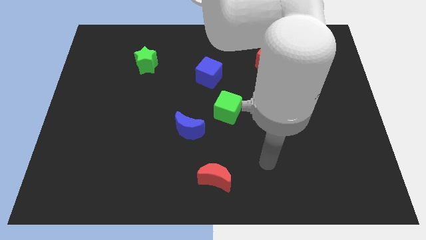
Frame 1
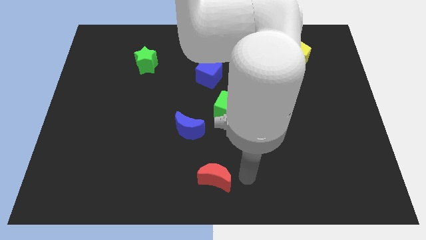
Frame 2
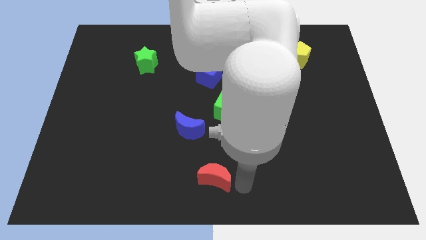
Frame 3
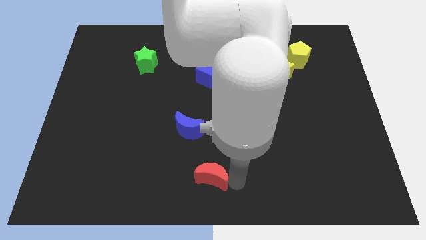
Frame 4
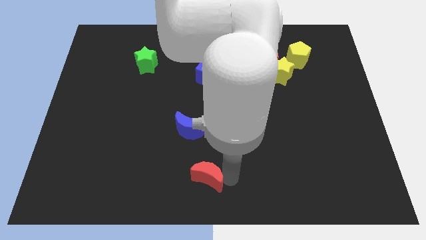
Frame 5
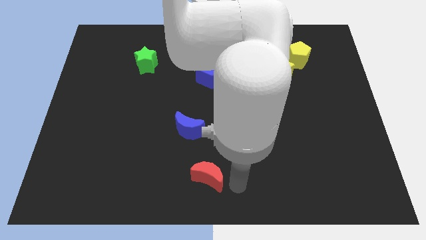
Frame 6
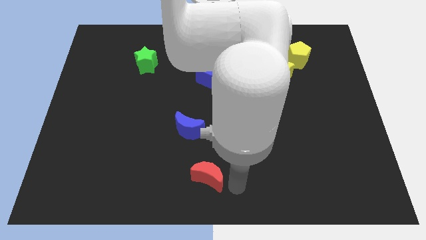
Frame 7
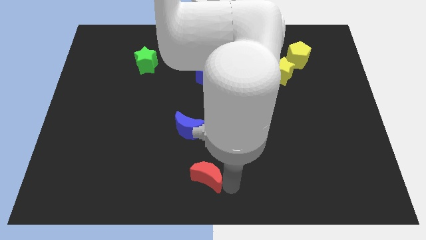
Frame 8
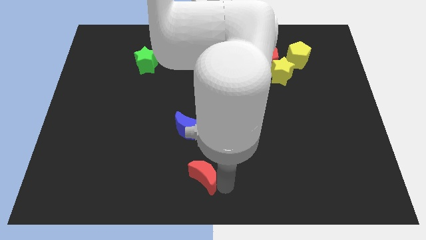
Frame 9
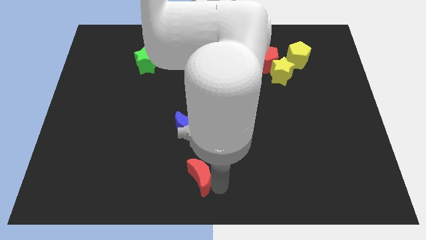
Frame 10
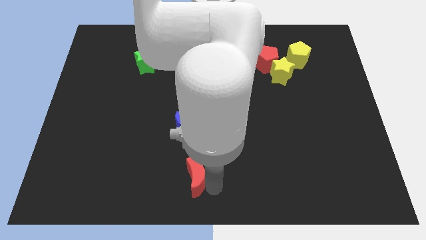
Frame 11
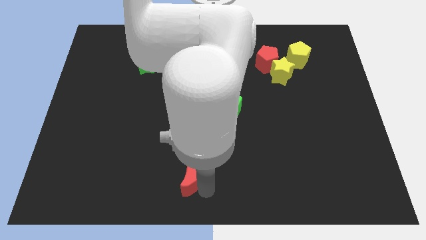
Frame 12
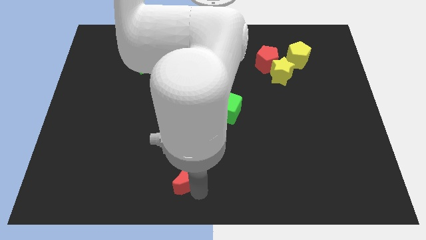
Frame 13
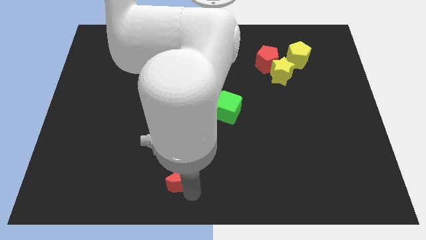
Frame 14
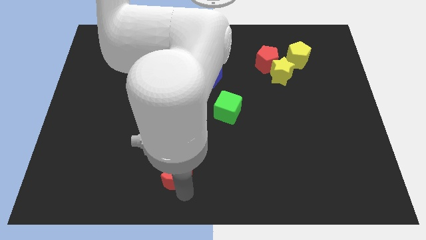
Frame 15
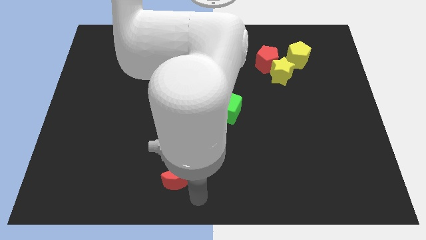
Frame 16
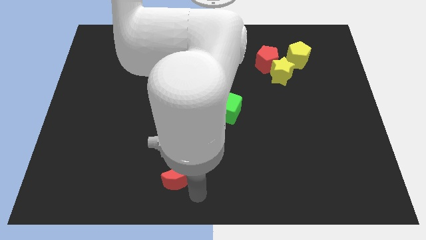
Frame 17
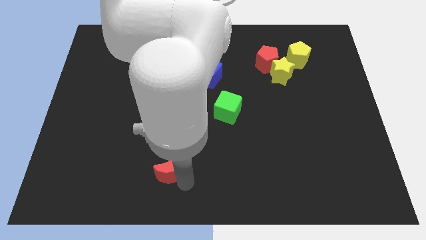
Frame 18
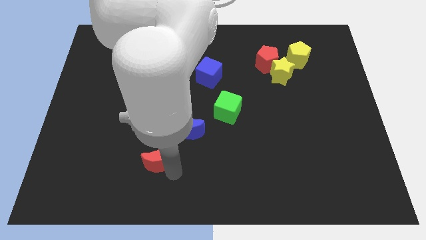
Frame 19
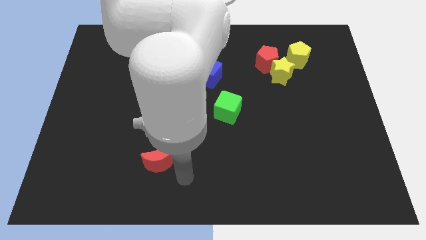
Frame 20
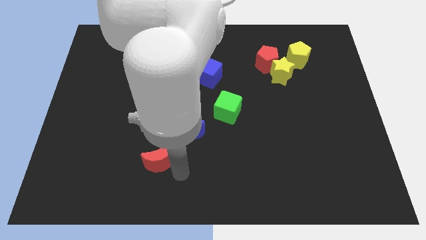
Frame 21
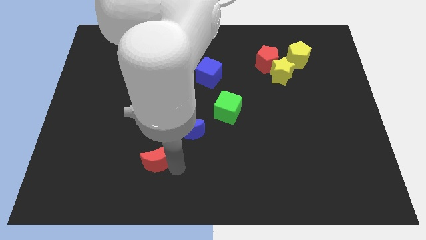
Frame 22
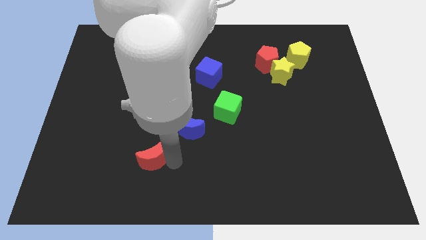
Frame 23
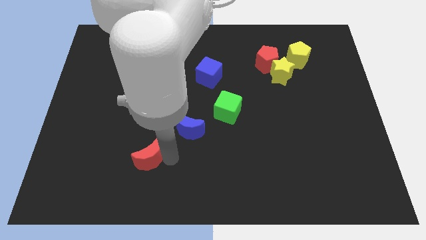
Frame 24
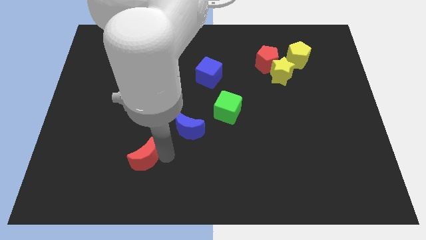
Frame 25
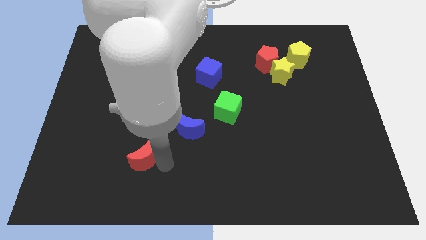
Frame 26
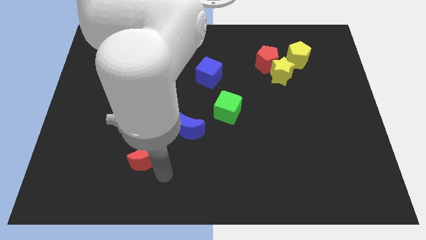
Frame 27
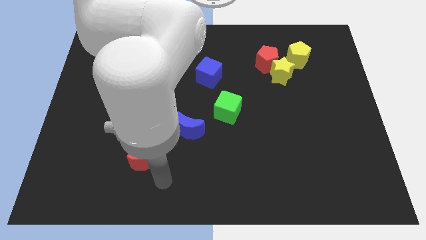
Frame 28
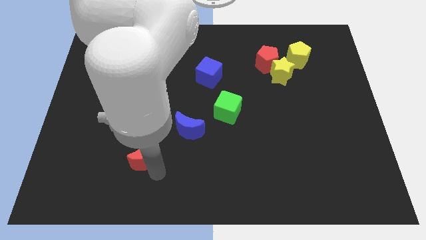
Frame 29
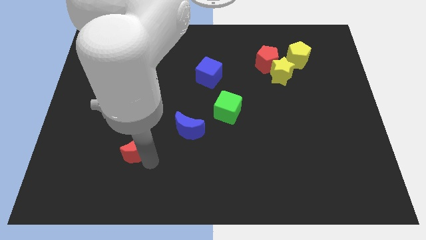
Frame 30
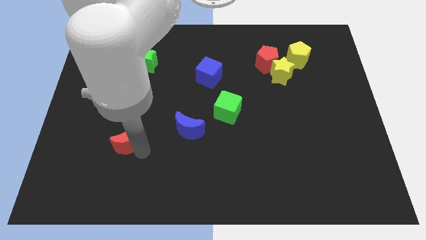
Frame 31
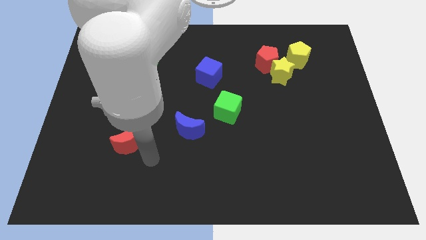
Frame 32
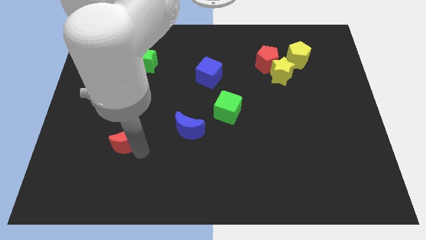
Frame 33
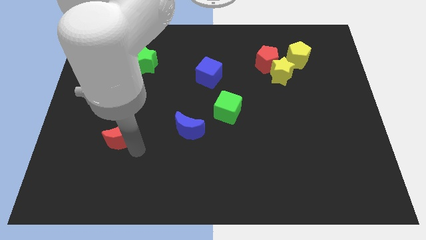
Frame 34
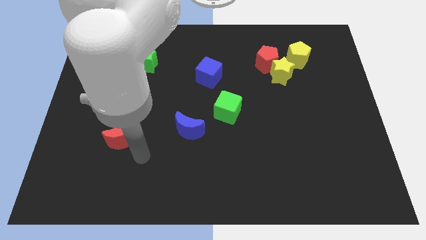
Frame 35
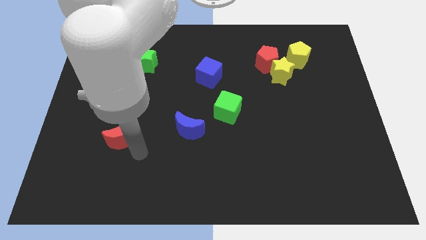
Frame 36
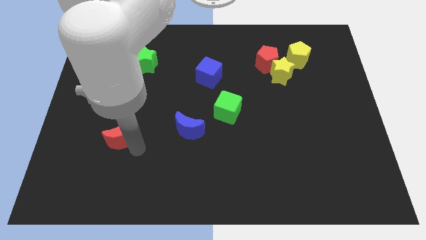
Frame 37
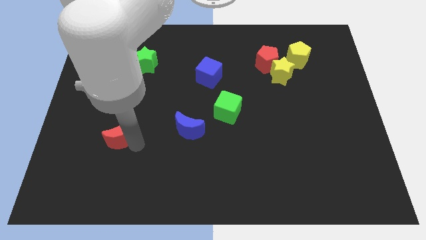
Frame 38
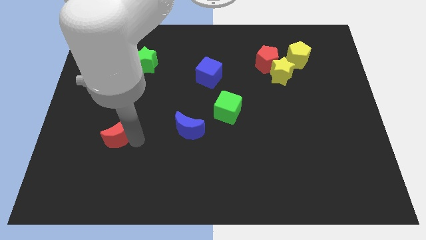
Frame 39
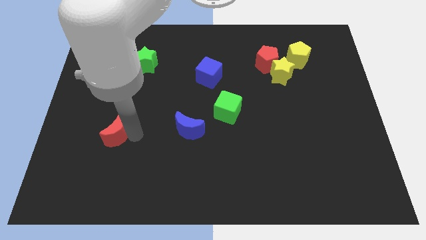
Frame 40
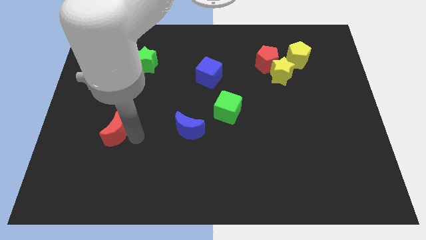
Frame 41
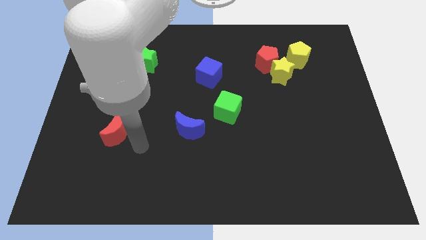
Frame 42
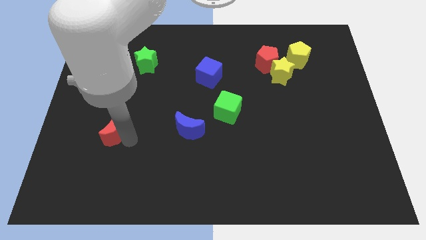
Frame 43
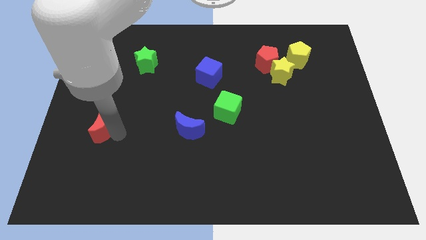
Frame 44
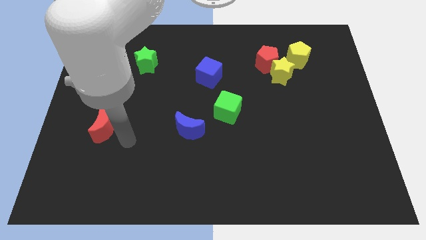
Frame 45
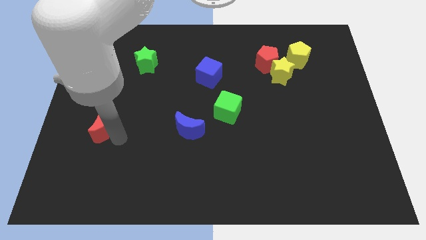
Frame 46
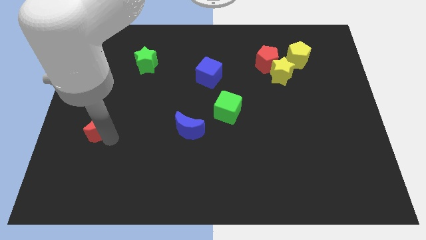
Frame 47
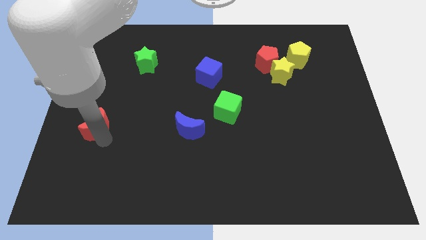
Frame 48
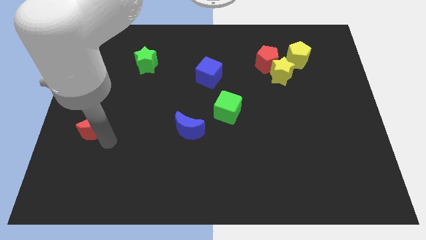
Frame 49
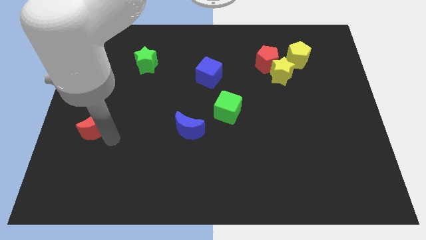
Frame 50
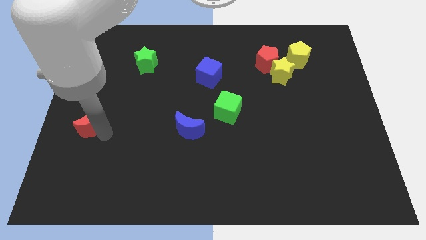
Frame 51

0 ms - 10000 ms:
slide the red moon to the left side of the board

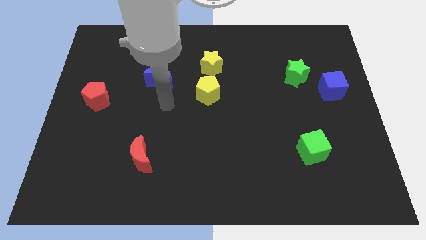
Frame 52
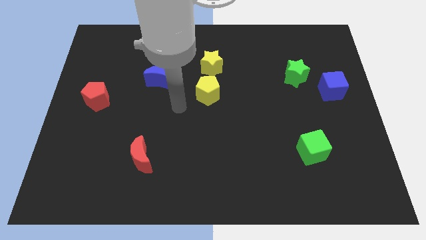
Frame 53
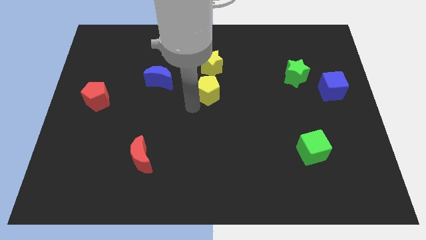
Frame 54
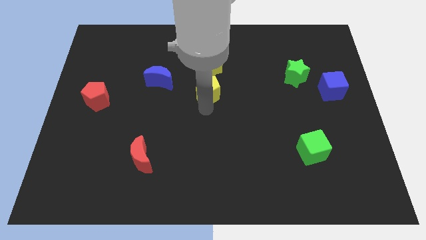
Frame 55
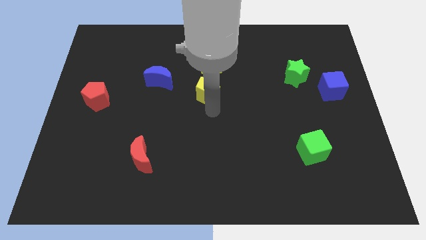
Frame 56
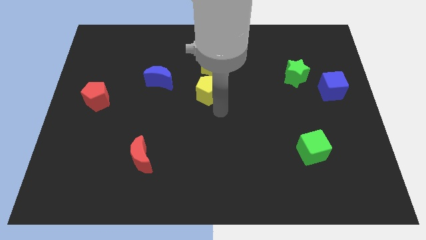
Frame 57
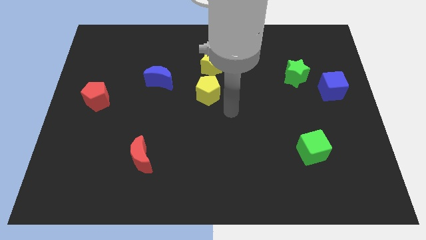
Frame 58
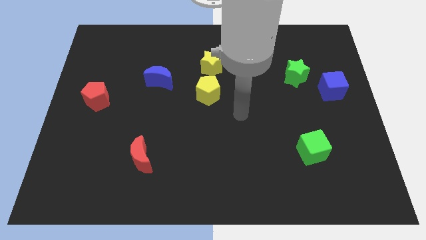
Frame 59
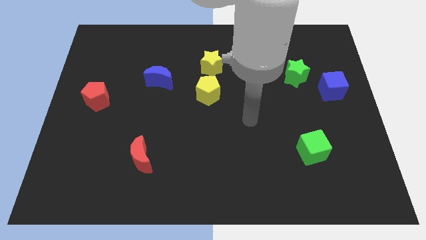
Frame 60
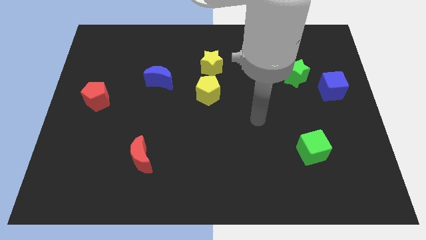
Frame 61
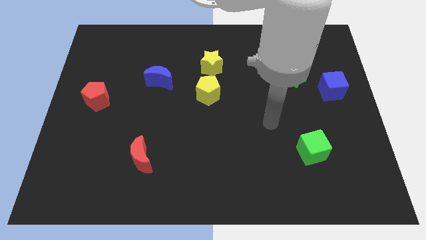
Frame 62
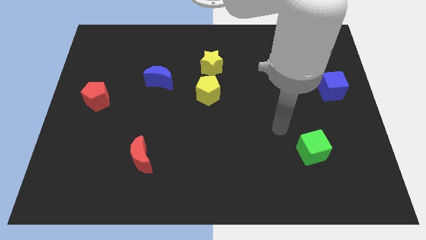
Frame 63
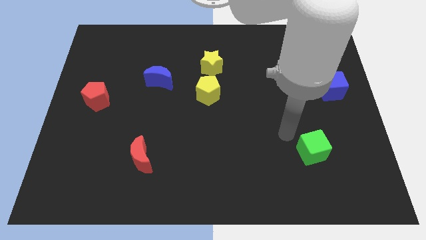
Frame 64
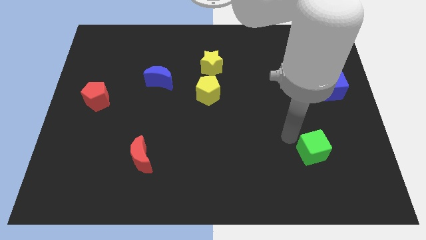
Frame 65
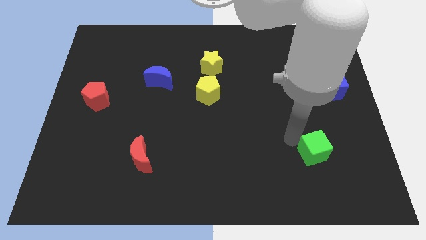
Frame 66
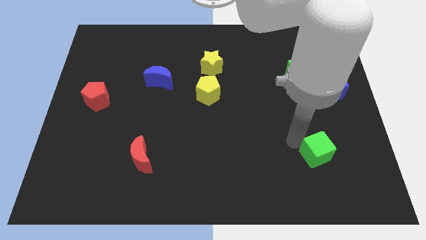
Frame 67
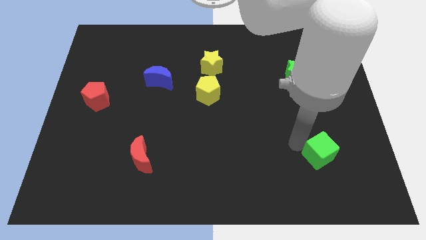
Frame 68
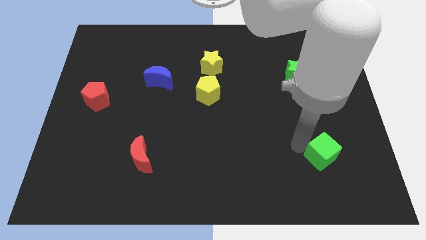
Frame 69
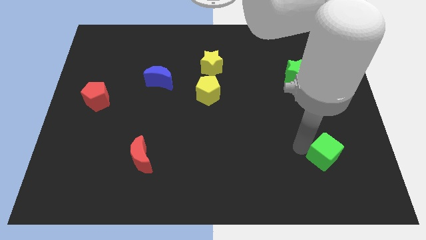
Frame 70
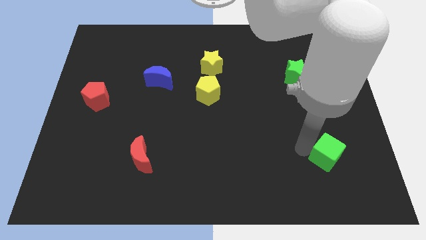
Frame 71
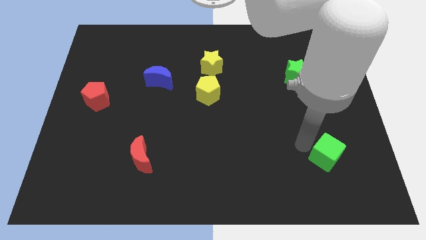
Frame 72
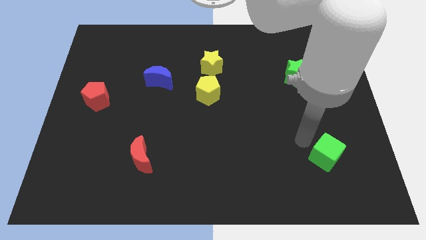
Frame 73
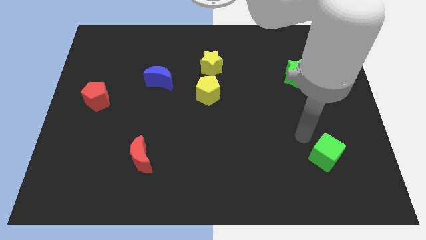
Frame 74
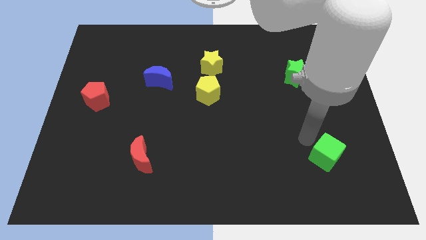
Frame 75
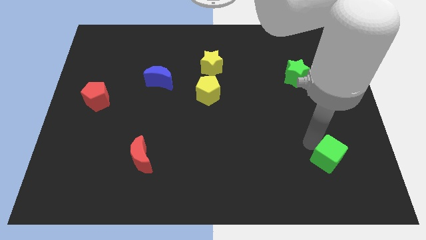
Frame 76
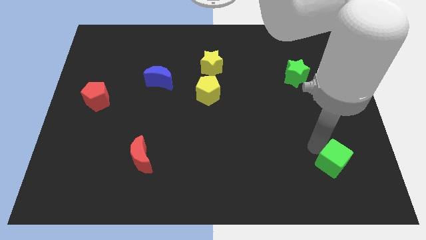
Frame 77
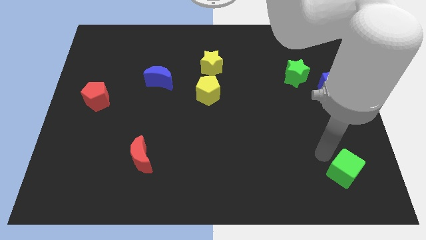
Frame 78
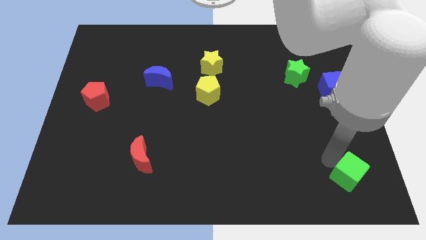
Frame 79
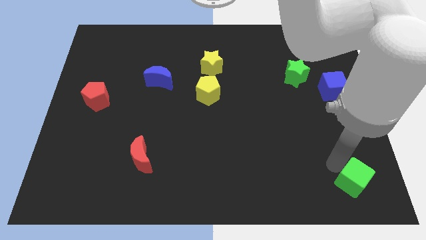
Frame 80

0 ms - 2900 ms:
move the green cube to the bottom right of the board
